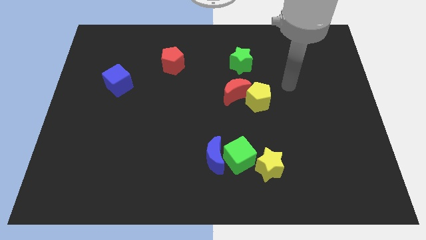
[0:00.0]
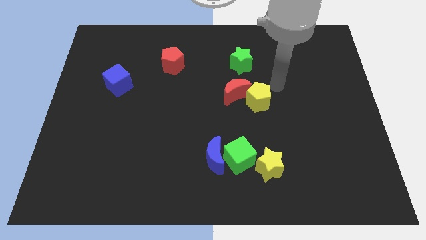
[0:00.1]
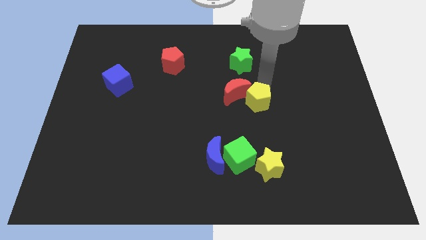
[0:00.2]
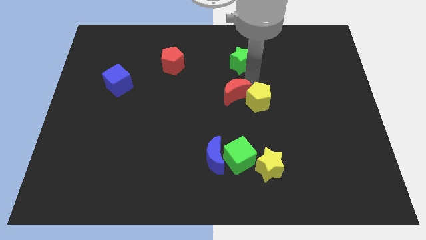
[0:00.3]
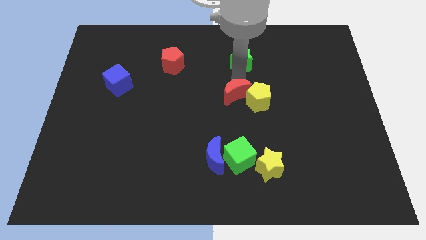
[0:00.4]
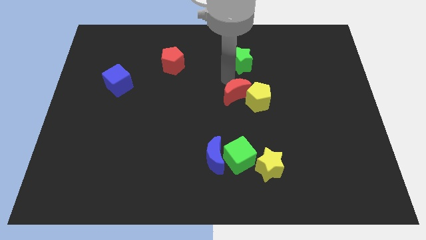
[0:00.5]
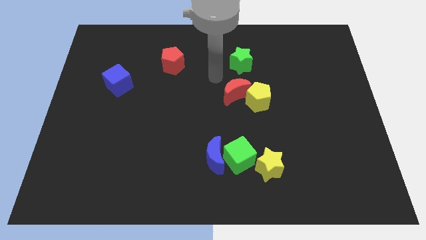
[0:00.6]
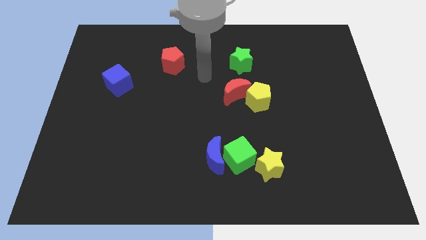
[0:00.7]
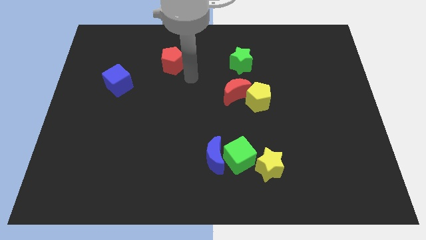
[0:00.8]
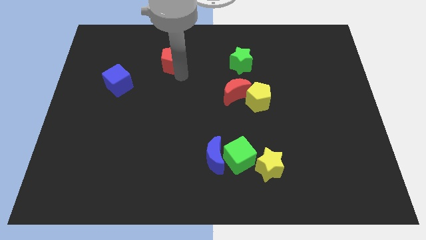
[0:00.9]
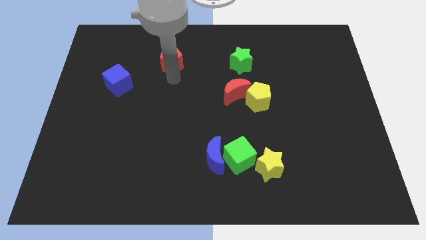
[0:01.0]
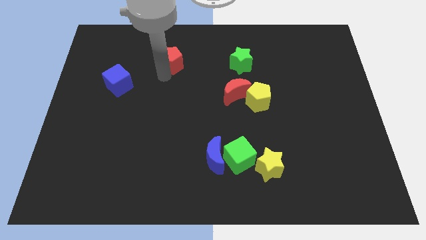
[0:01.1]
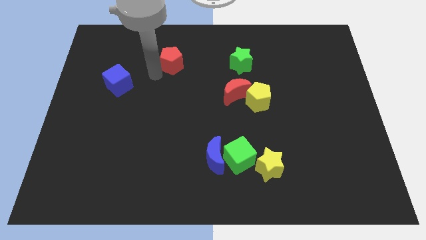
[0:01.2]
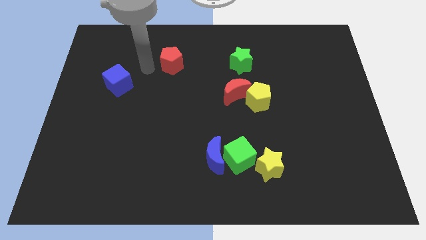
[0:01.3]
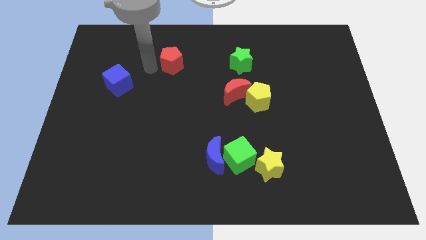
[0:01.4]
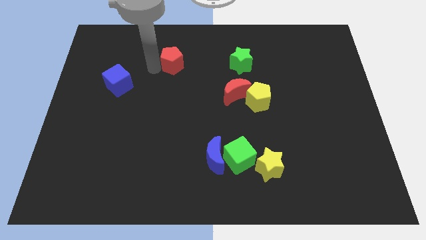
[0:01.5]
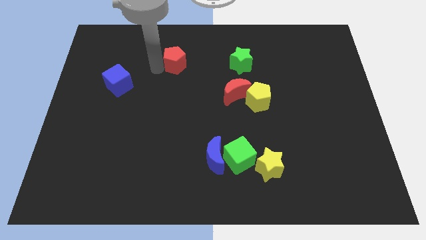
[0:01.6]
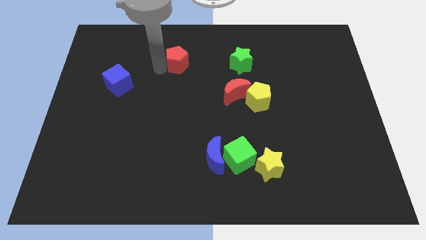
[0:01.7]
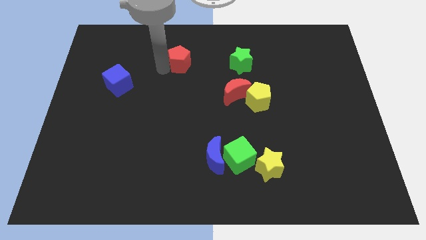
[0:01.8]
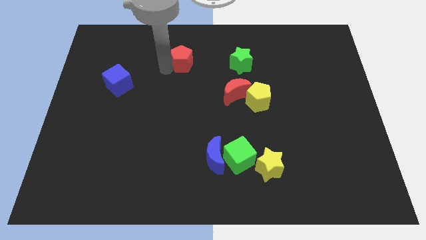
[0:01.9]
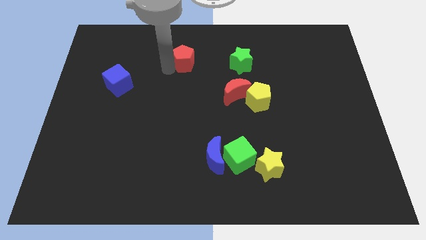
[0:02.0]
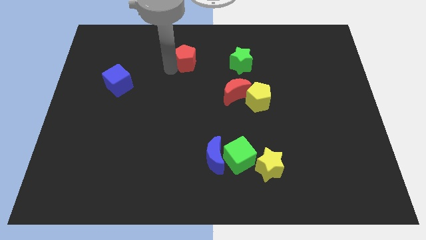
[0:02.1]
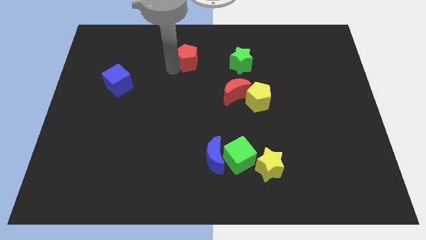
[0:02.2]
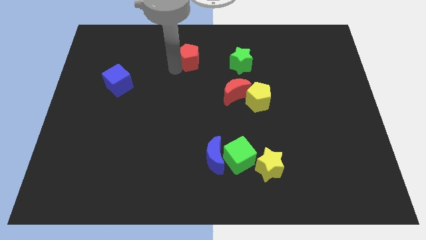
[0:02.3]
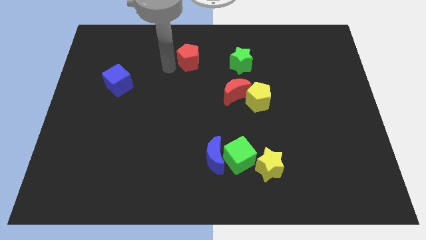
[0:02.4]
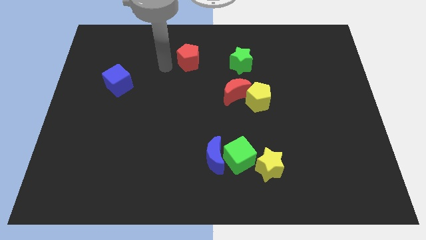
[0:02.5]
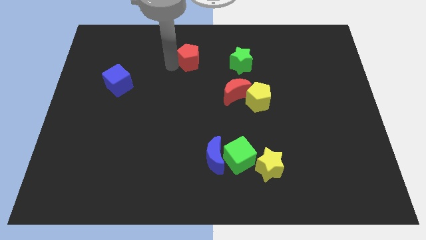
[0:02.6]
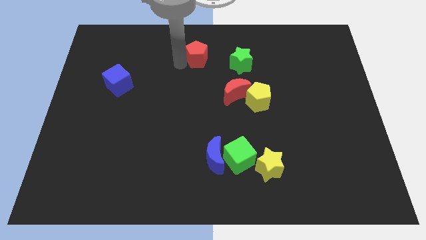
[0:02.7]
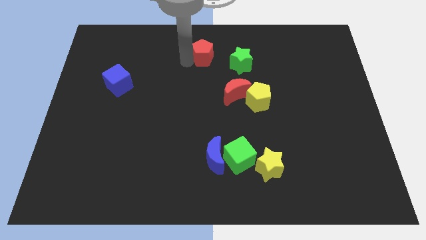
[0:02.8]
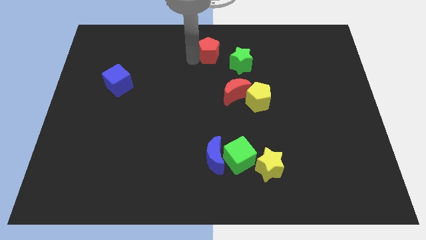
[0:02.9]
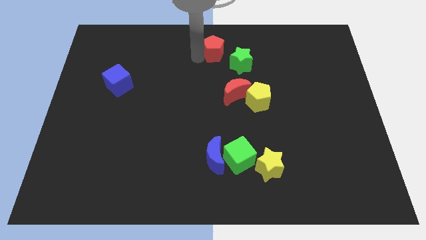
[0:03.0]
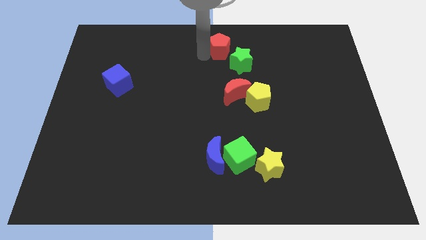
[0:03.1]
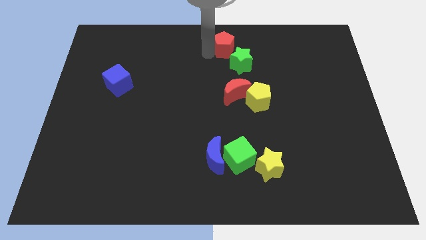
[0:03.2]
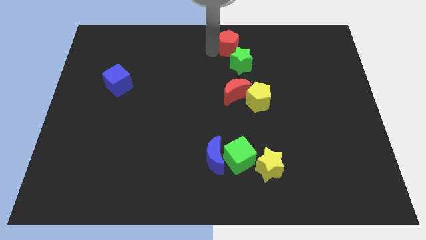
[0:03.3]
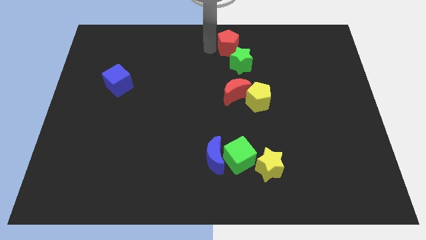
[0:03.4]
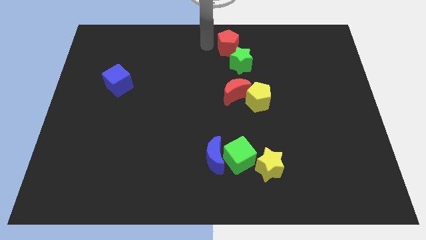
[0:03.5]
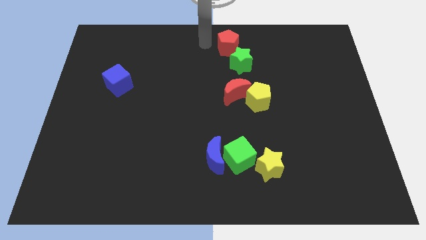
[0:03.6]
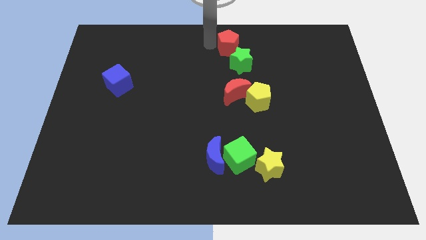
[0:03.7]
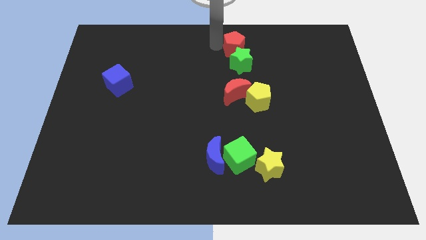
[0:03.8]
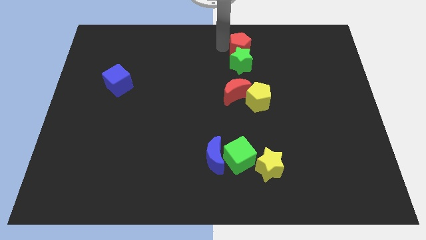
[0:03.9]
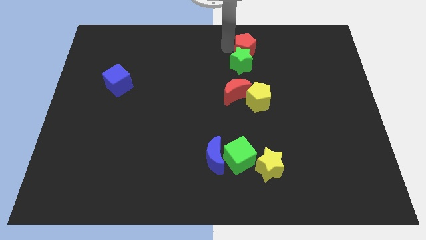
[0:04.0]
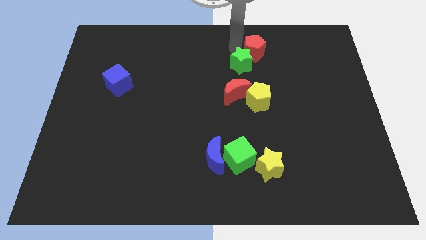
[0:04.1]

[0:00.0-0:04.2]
move the red pentagon to the right

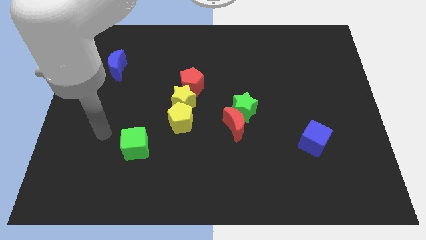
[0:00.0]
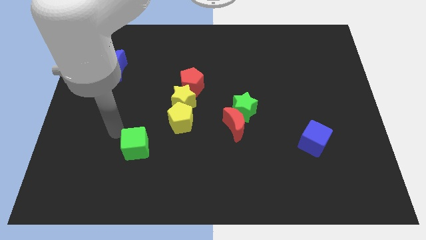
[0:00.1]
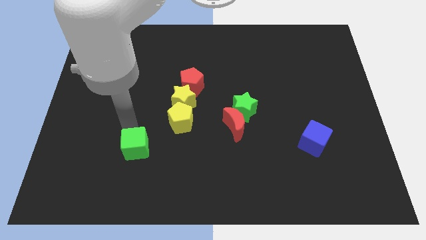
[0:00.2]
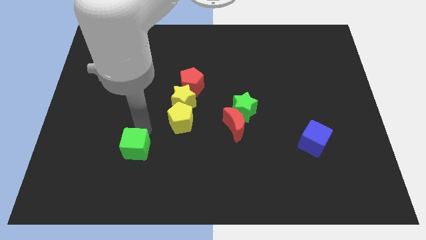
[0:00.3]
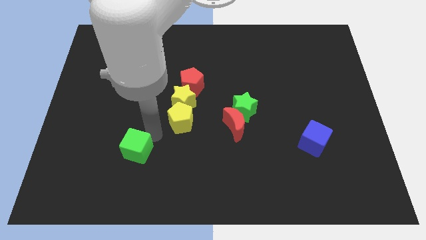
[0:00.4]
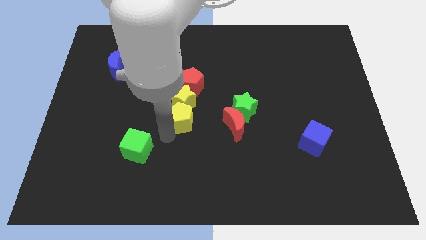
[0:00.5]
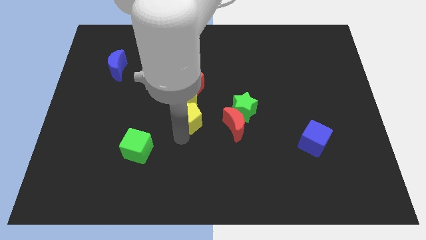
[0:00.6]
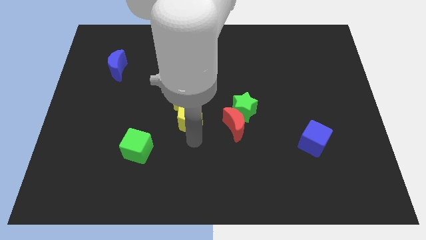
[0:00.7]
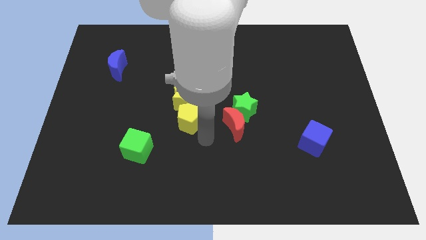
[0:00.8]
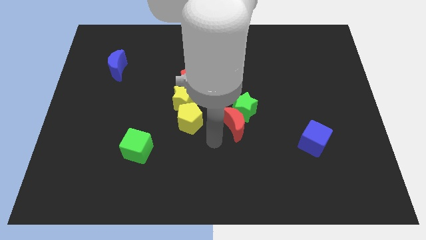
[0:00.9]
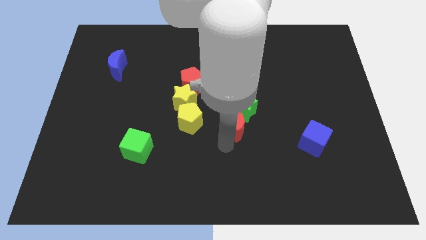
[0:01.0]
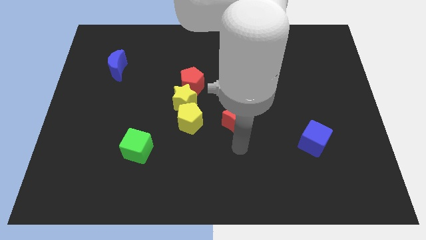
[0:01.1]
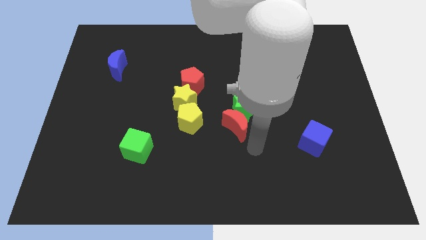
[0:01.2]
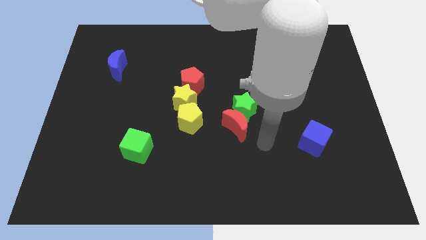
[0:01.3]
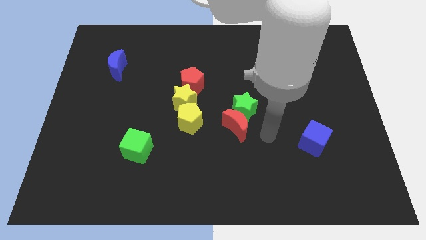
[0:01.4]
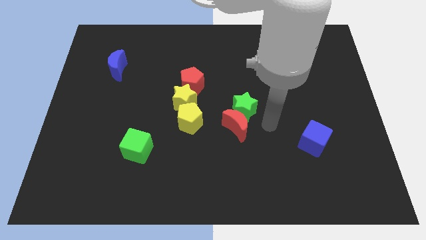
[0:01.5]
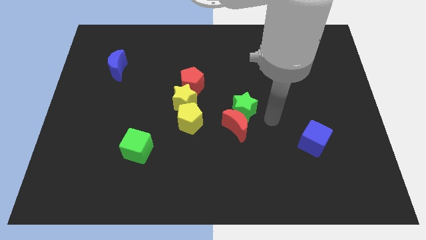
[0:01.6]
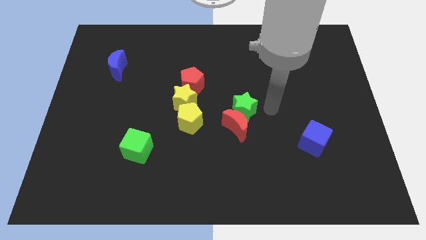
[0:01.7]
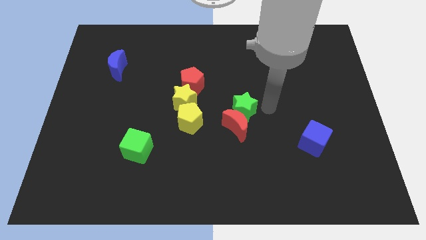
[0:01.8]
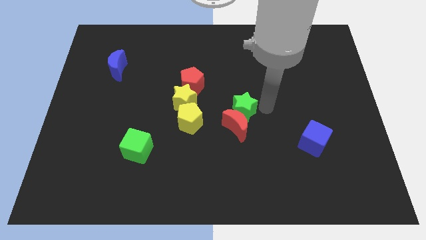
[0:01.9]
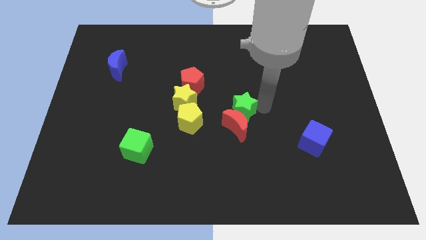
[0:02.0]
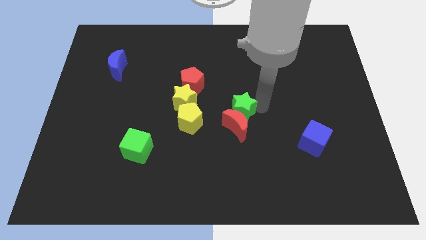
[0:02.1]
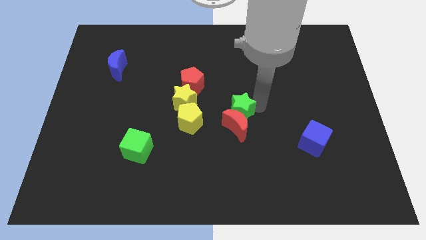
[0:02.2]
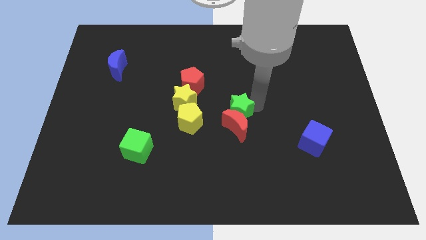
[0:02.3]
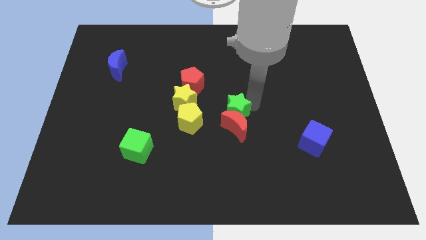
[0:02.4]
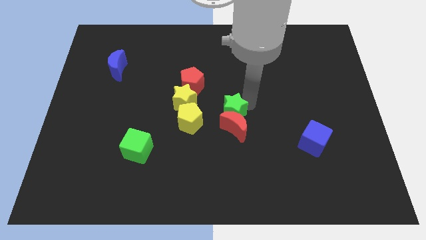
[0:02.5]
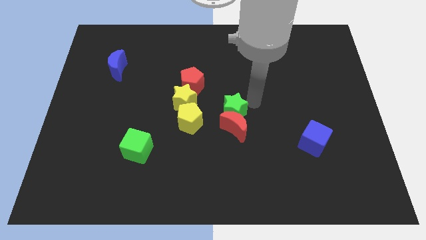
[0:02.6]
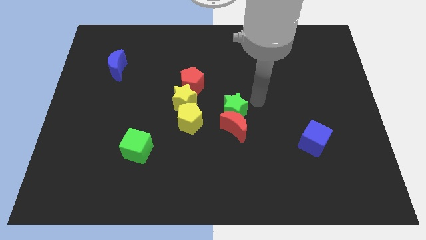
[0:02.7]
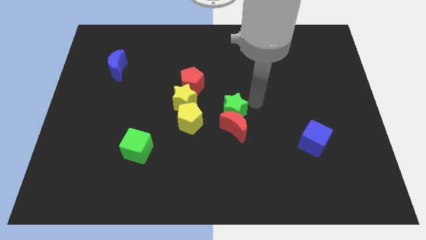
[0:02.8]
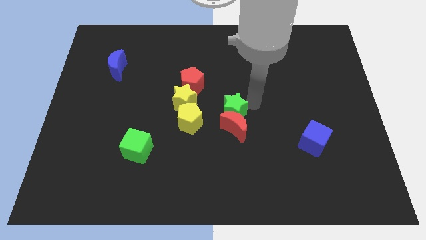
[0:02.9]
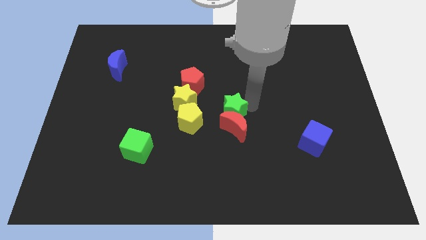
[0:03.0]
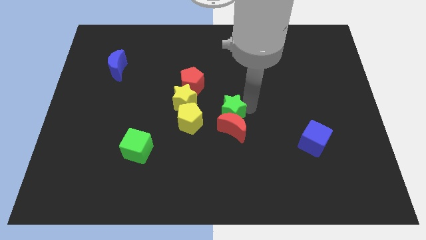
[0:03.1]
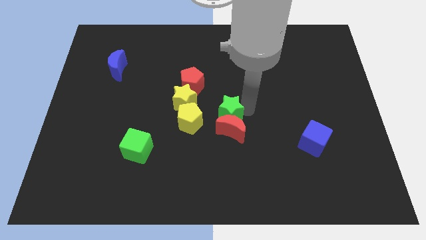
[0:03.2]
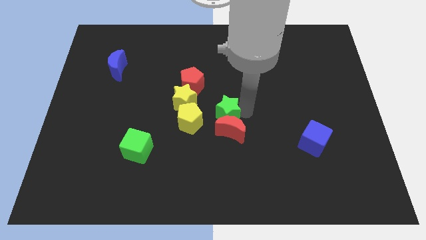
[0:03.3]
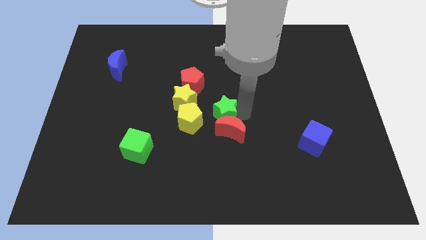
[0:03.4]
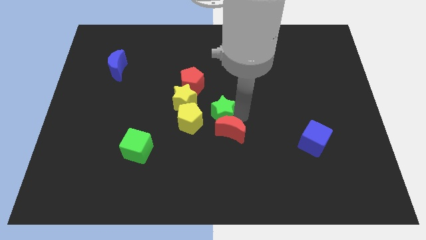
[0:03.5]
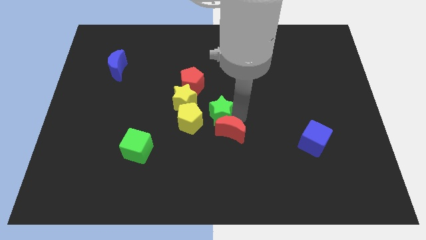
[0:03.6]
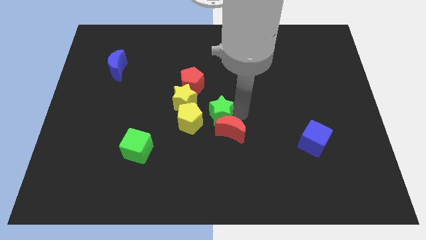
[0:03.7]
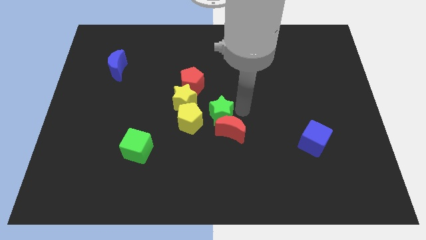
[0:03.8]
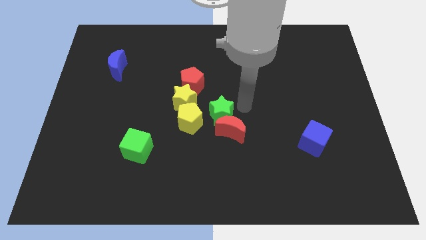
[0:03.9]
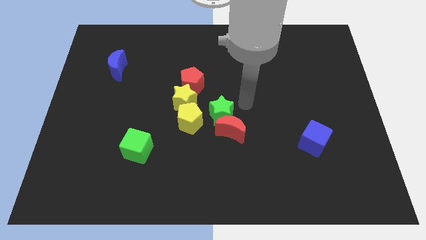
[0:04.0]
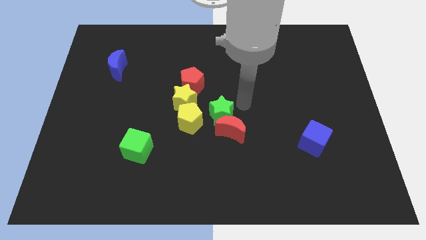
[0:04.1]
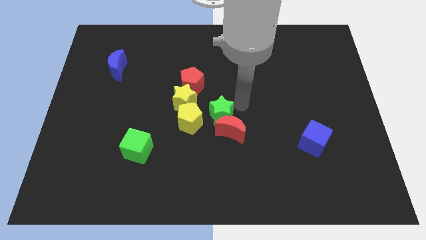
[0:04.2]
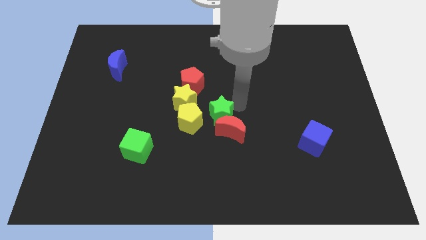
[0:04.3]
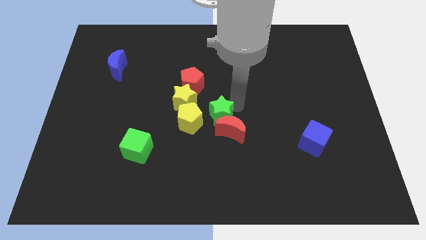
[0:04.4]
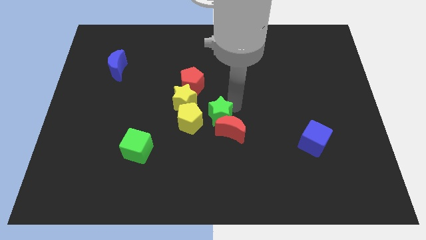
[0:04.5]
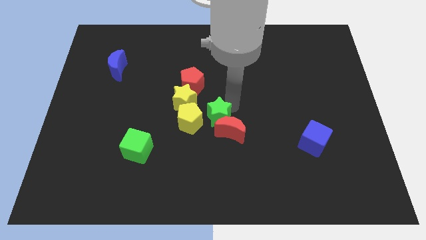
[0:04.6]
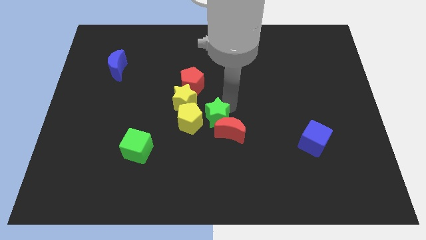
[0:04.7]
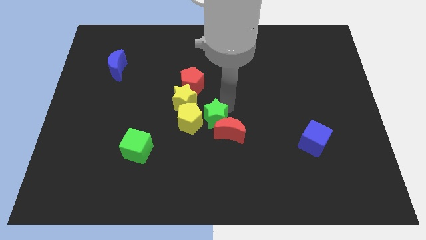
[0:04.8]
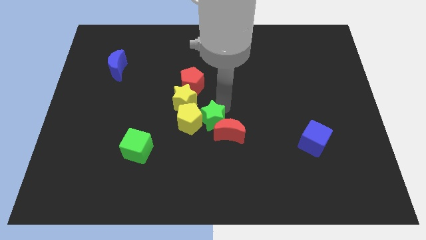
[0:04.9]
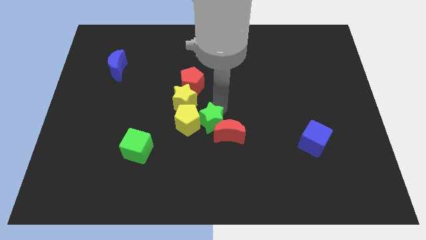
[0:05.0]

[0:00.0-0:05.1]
slightly push the green star diagonally down and left
